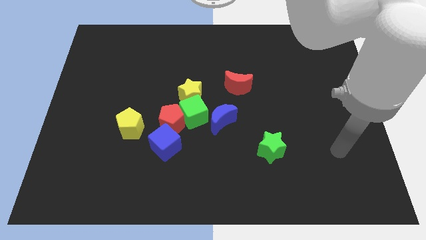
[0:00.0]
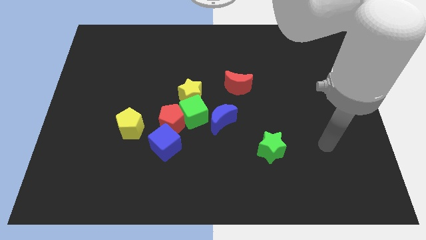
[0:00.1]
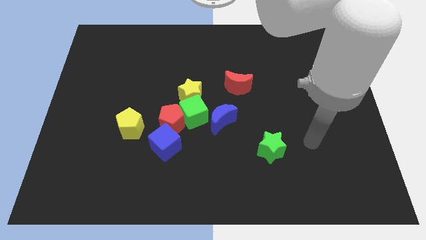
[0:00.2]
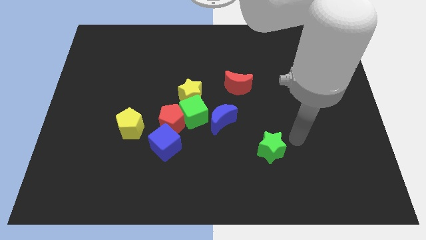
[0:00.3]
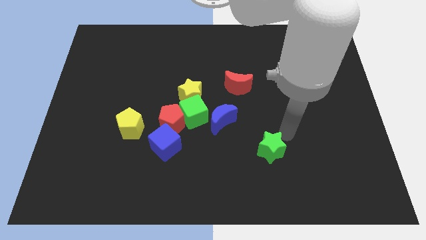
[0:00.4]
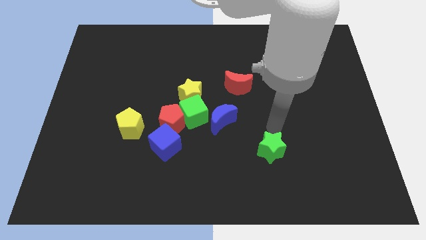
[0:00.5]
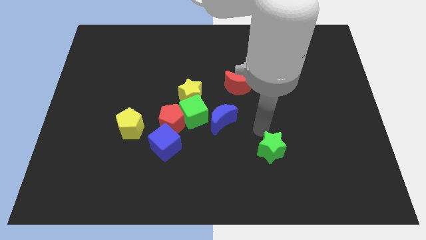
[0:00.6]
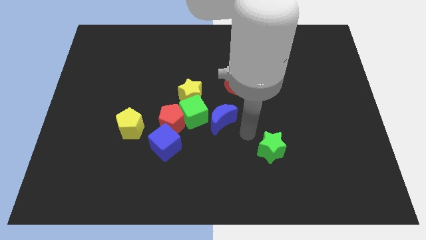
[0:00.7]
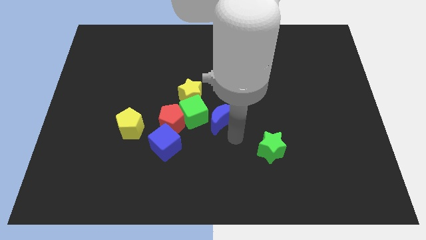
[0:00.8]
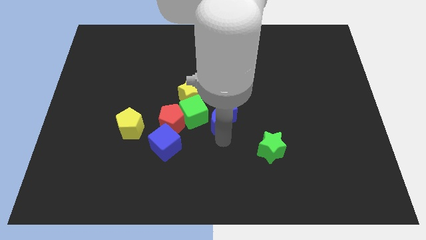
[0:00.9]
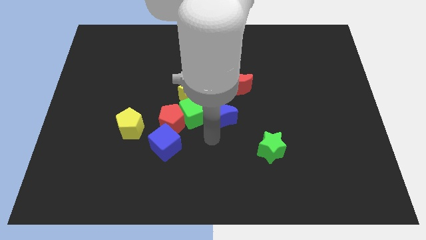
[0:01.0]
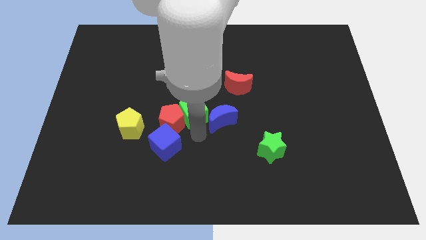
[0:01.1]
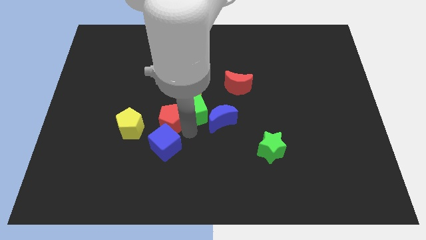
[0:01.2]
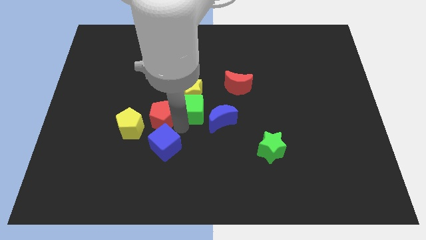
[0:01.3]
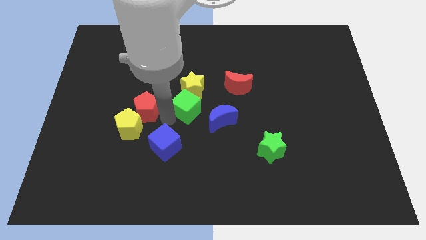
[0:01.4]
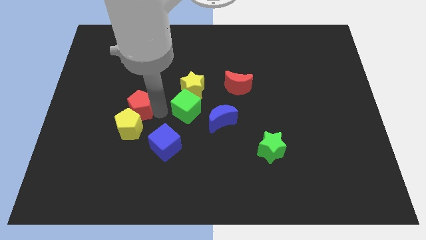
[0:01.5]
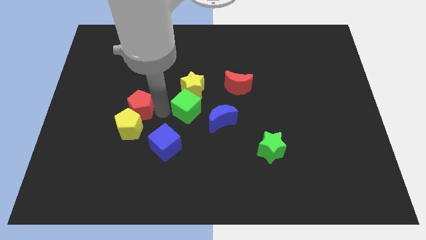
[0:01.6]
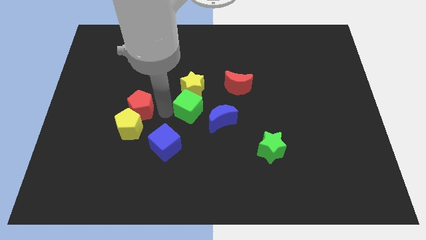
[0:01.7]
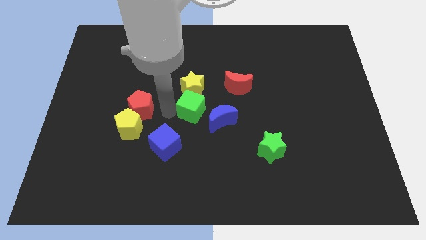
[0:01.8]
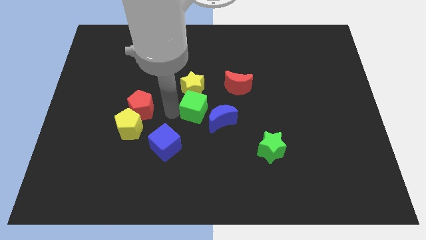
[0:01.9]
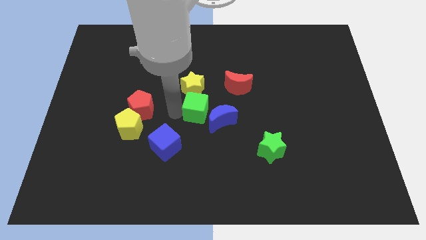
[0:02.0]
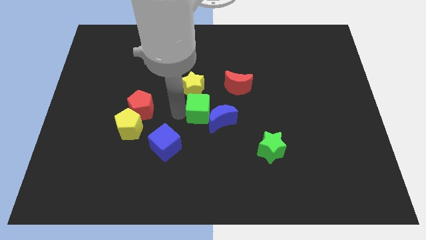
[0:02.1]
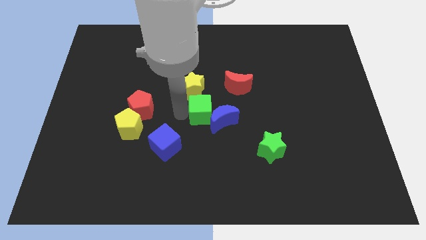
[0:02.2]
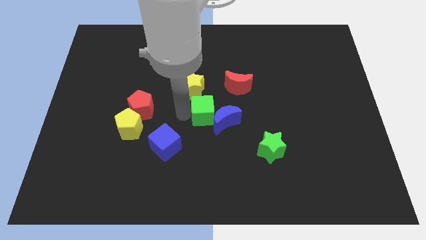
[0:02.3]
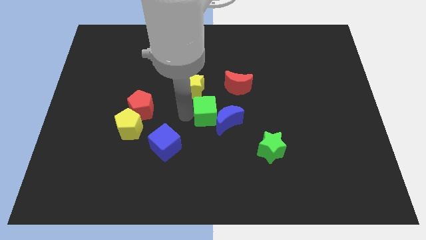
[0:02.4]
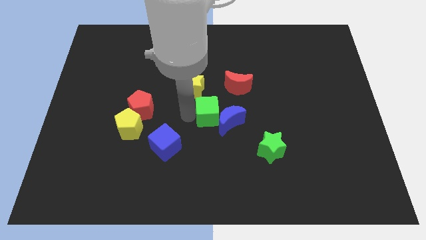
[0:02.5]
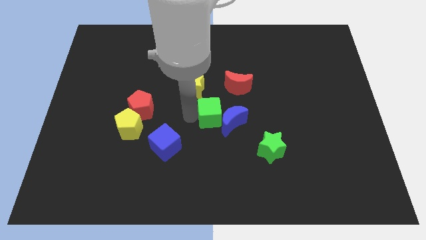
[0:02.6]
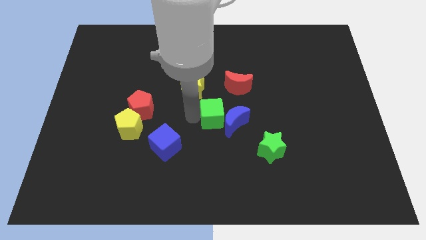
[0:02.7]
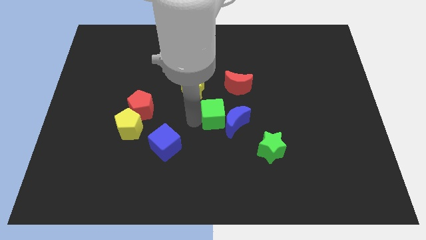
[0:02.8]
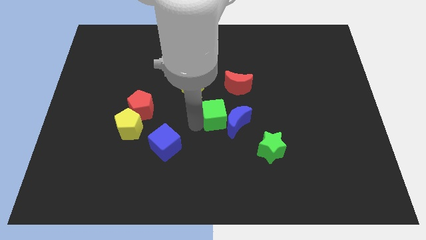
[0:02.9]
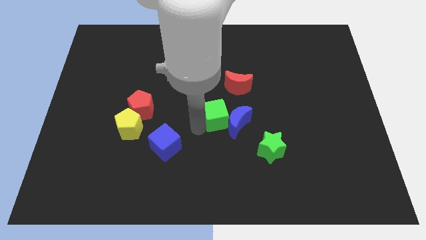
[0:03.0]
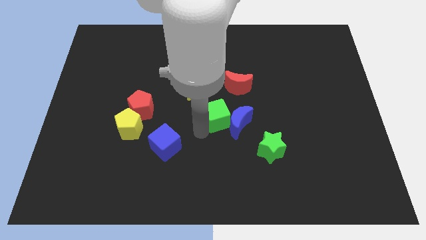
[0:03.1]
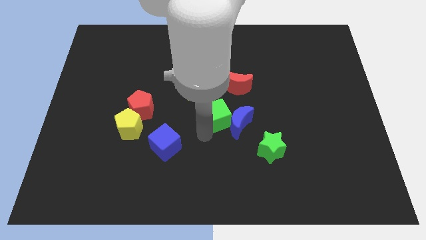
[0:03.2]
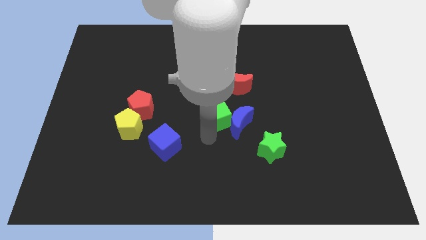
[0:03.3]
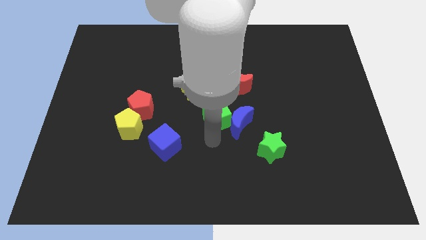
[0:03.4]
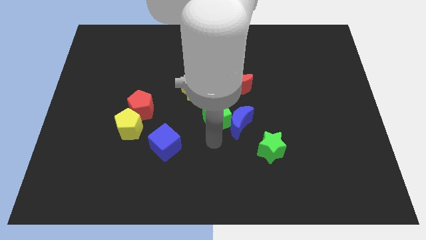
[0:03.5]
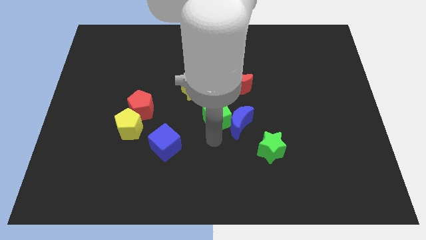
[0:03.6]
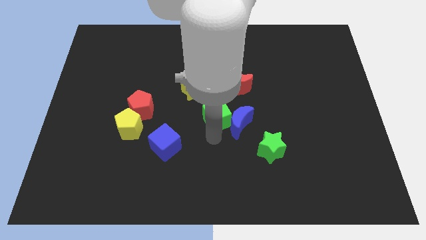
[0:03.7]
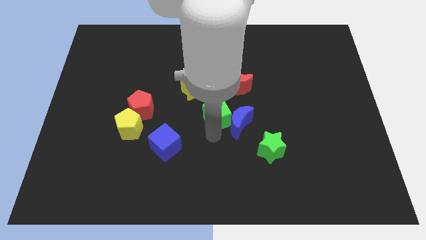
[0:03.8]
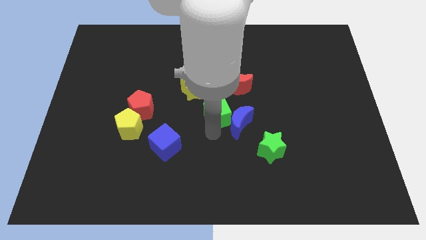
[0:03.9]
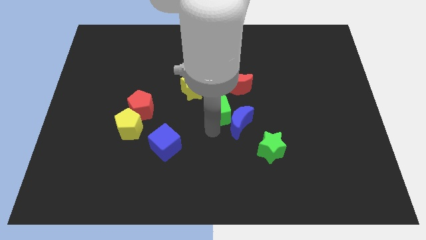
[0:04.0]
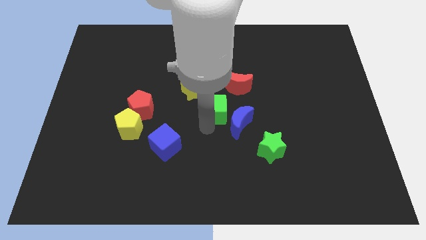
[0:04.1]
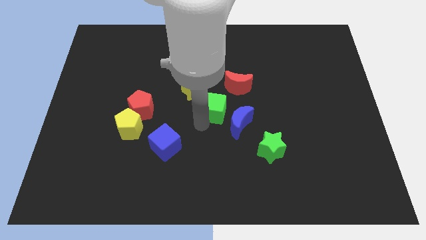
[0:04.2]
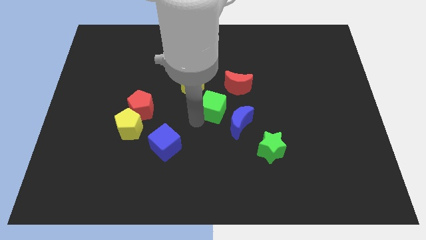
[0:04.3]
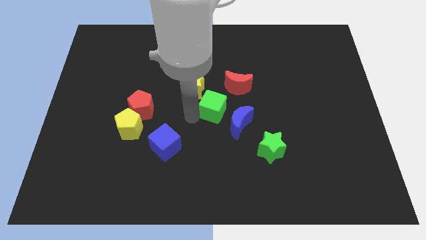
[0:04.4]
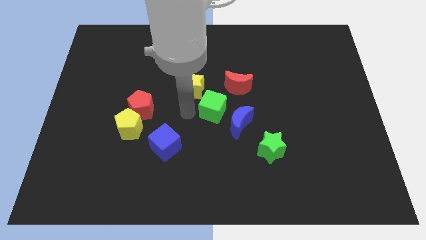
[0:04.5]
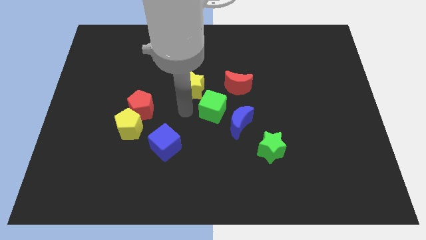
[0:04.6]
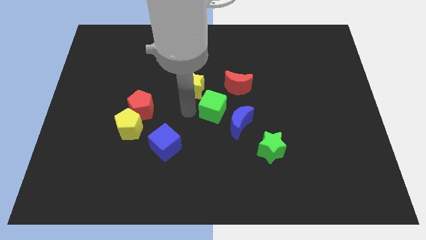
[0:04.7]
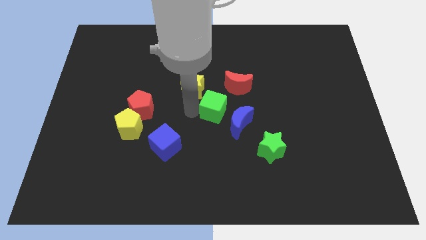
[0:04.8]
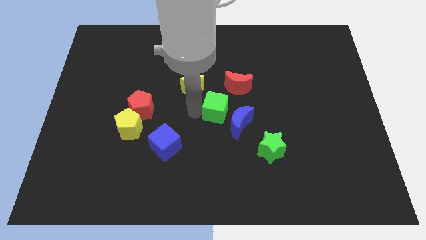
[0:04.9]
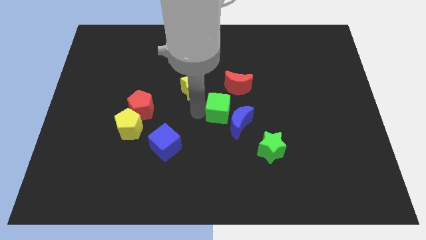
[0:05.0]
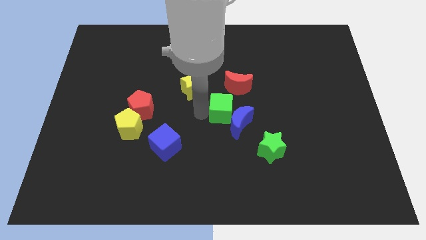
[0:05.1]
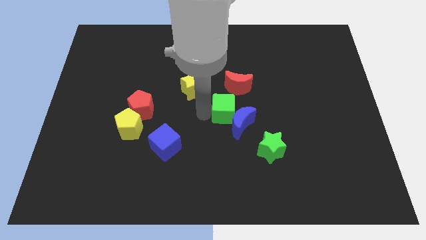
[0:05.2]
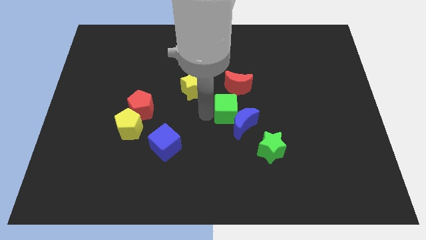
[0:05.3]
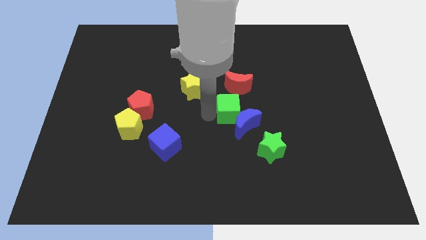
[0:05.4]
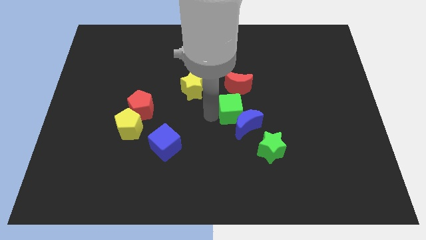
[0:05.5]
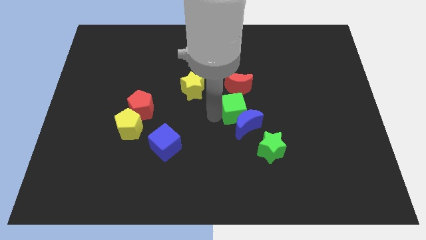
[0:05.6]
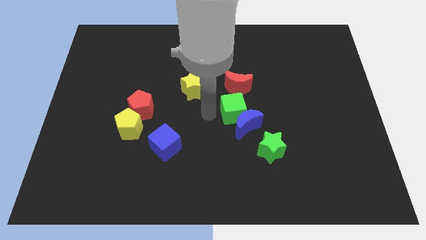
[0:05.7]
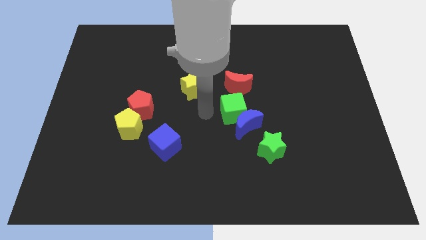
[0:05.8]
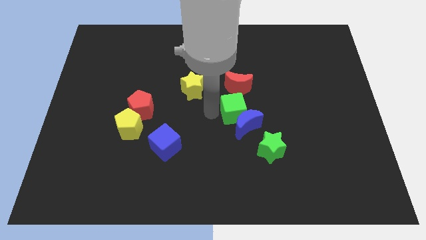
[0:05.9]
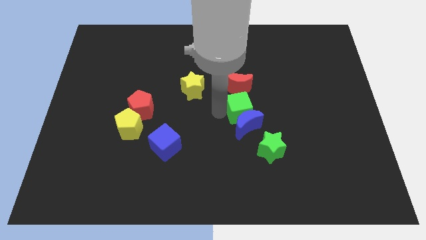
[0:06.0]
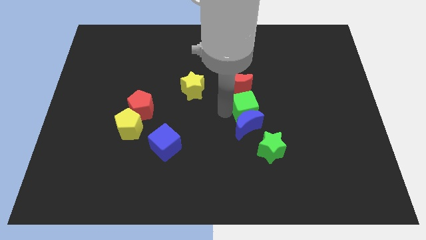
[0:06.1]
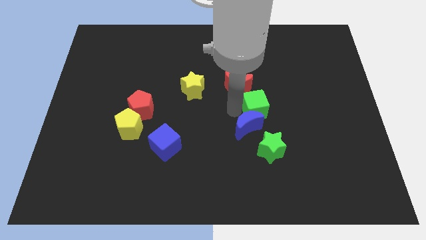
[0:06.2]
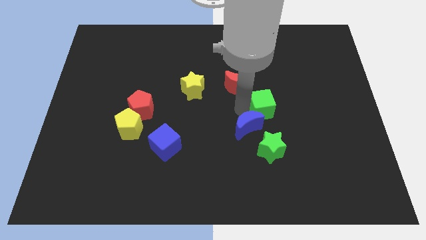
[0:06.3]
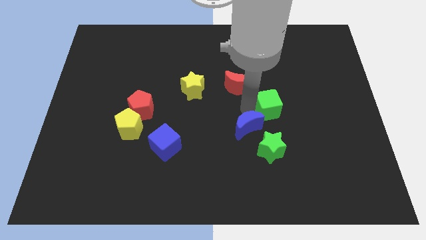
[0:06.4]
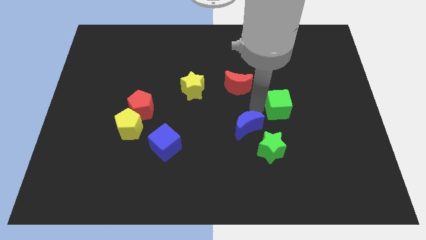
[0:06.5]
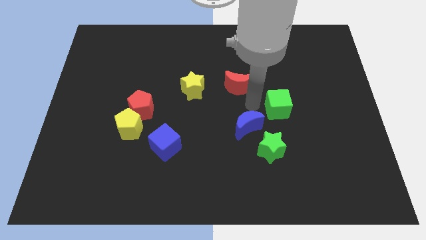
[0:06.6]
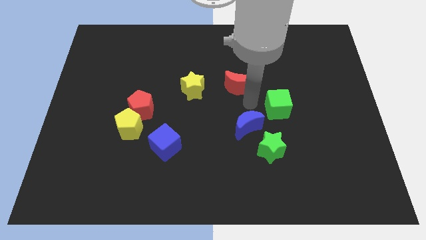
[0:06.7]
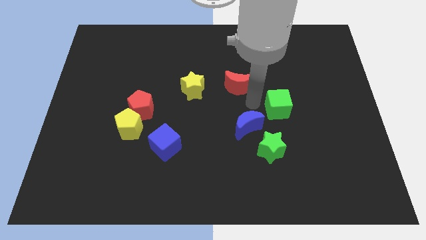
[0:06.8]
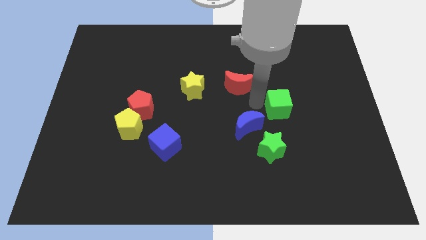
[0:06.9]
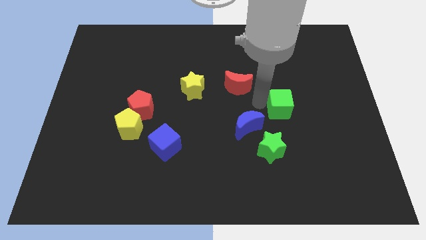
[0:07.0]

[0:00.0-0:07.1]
move the green cube to the right

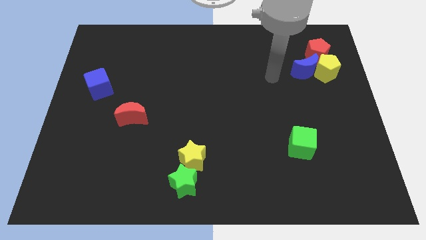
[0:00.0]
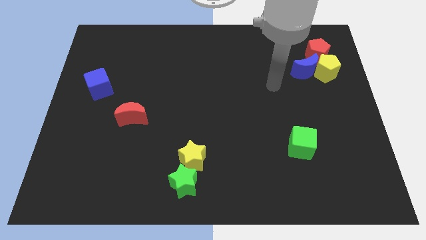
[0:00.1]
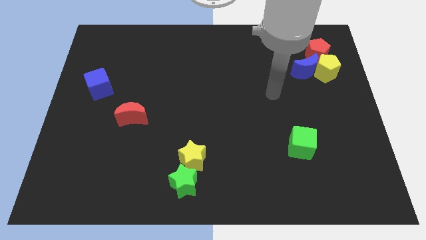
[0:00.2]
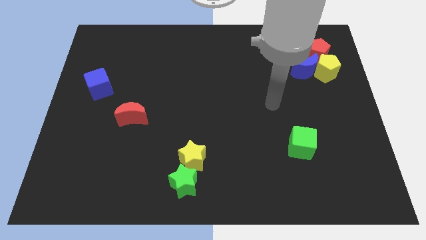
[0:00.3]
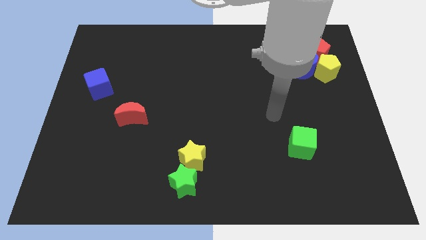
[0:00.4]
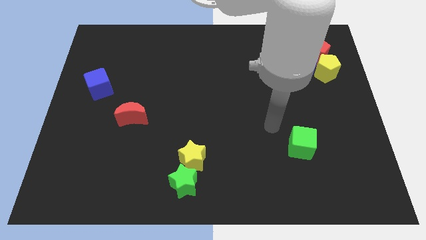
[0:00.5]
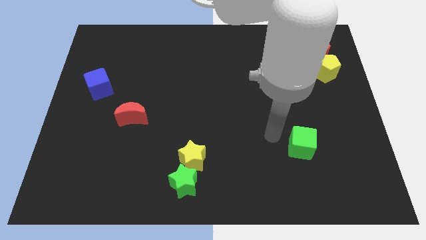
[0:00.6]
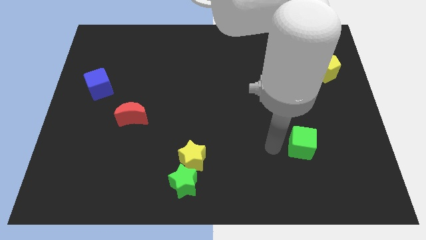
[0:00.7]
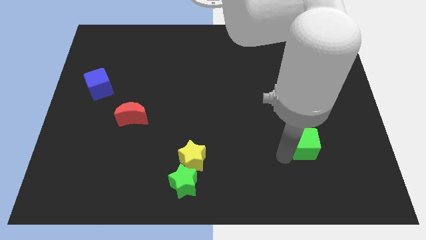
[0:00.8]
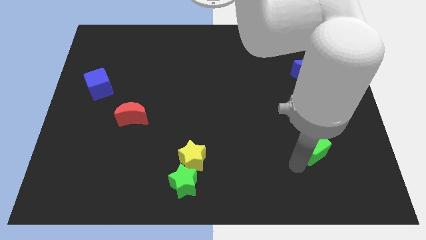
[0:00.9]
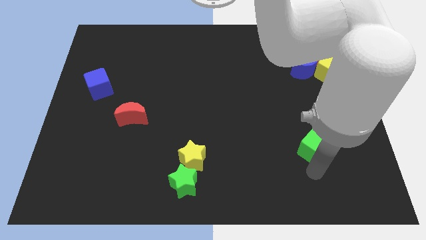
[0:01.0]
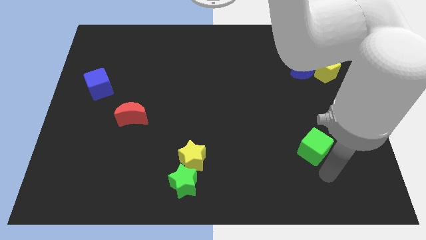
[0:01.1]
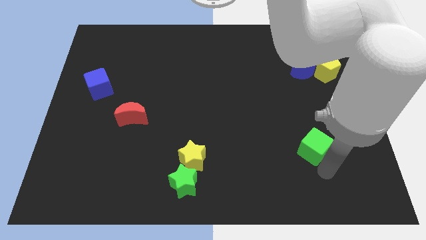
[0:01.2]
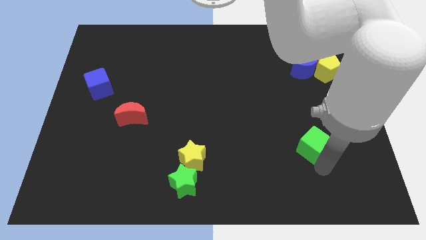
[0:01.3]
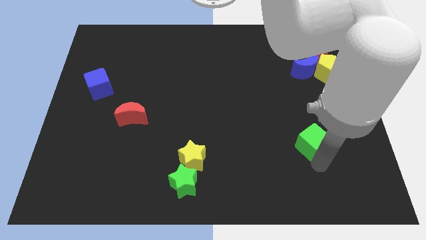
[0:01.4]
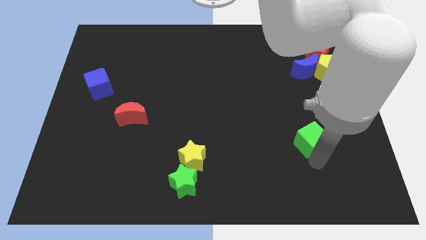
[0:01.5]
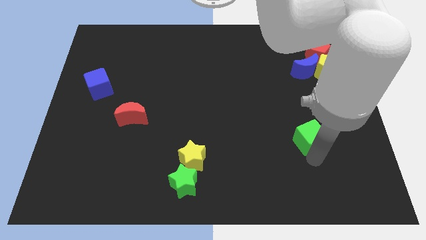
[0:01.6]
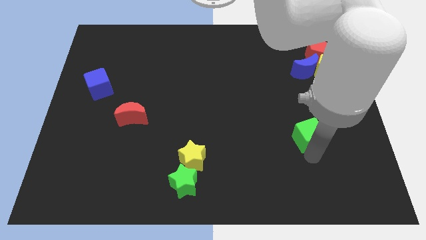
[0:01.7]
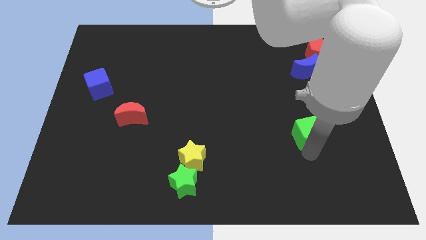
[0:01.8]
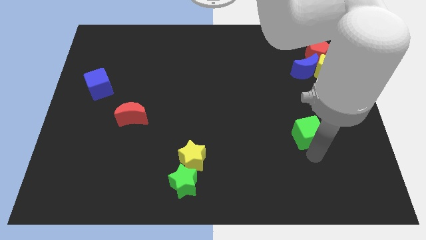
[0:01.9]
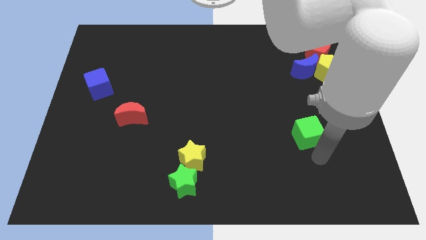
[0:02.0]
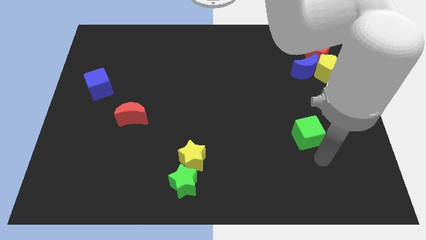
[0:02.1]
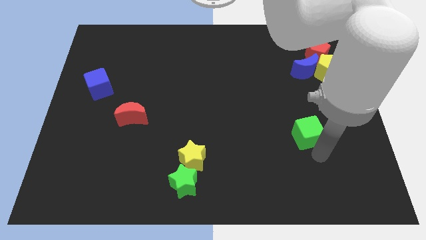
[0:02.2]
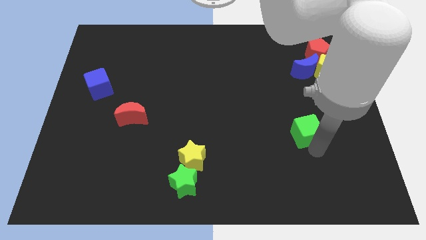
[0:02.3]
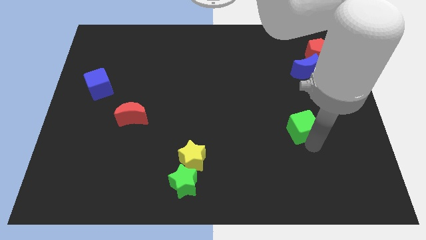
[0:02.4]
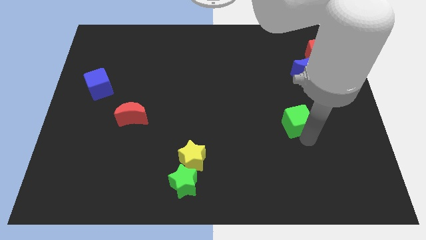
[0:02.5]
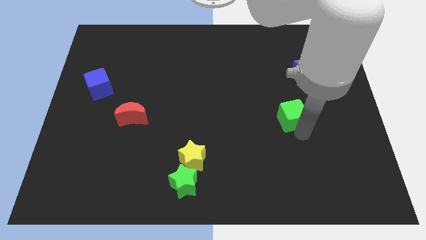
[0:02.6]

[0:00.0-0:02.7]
push the green cube a little up
